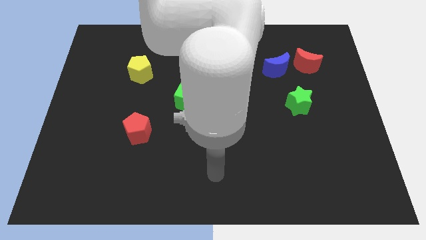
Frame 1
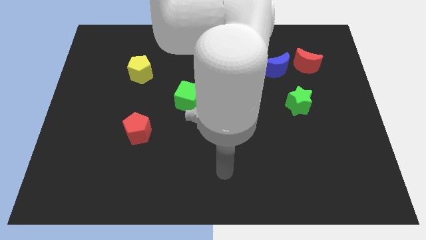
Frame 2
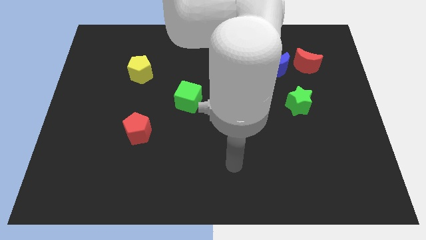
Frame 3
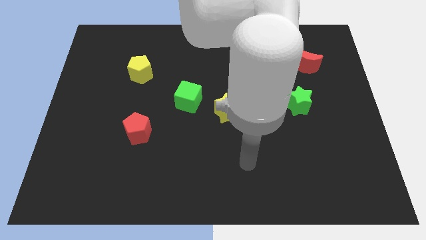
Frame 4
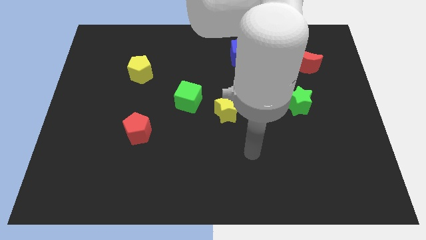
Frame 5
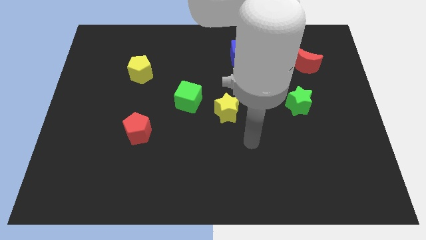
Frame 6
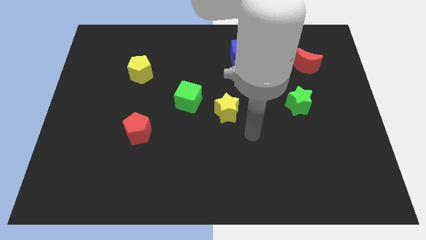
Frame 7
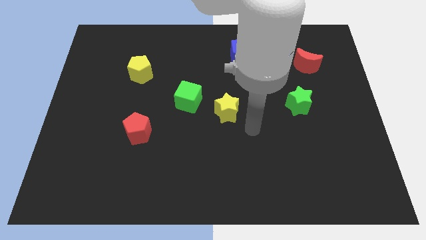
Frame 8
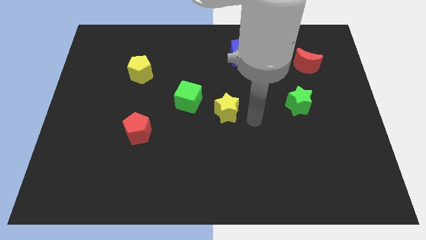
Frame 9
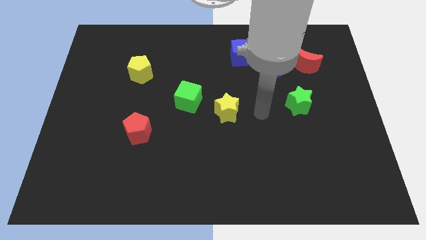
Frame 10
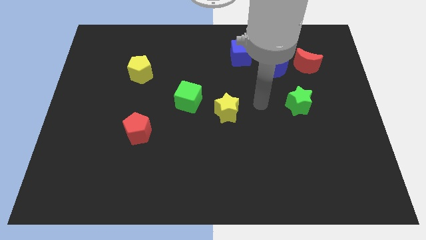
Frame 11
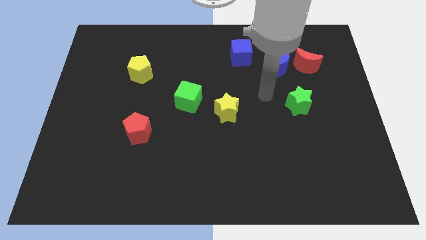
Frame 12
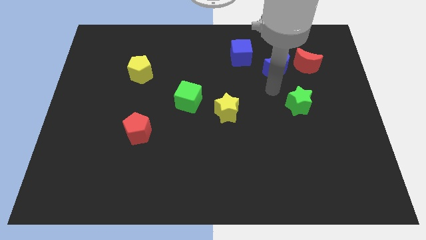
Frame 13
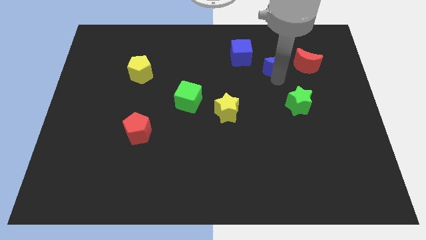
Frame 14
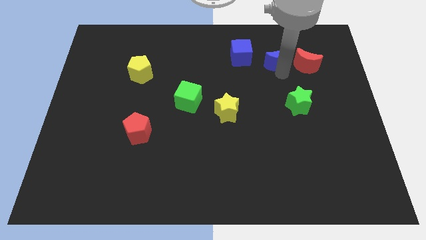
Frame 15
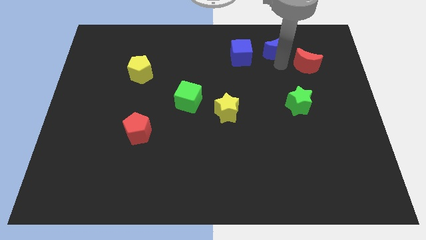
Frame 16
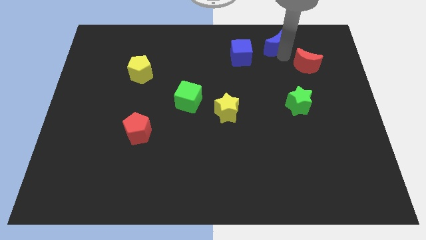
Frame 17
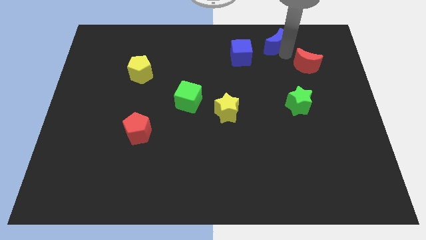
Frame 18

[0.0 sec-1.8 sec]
pull the red moon apart from the blue moon

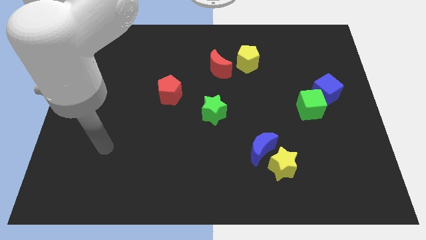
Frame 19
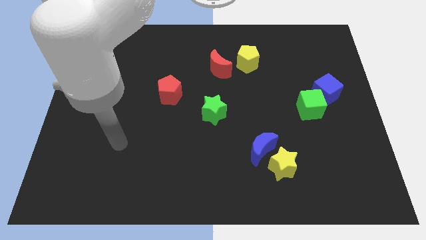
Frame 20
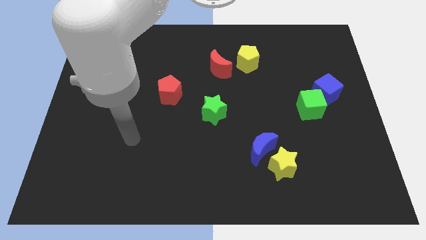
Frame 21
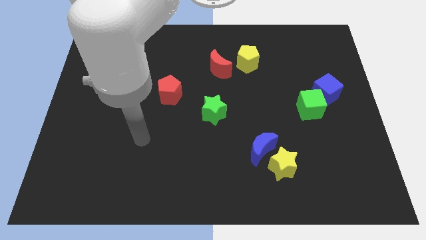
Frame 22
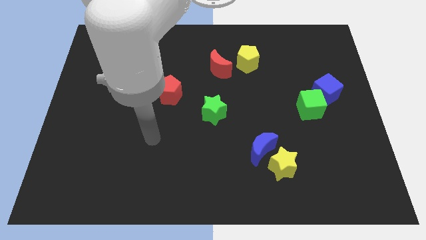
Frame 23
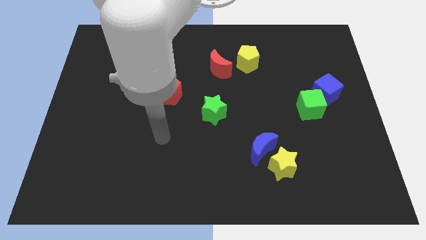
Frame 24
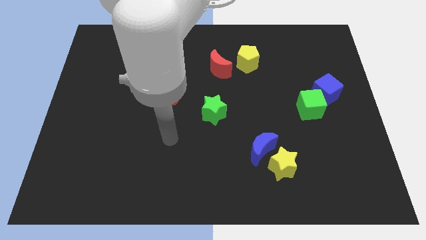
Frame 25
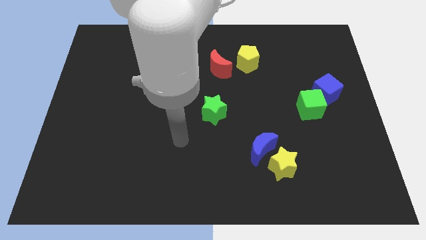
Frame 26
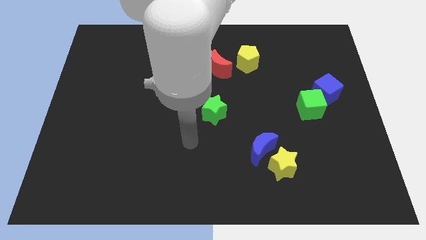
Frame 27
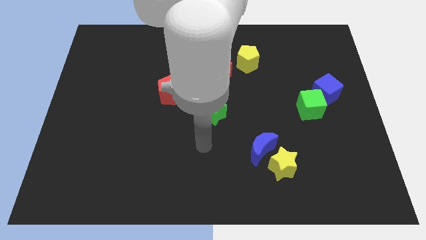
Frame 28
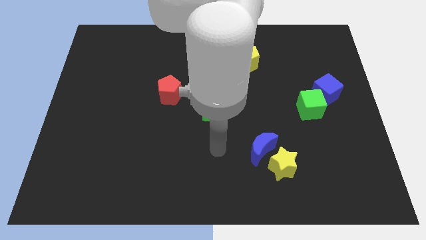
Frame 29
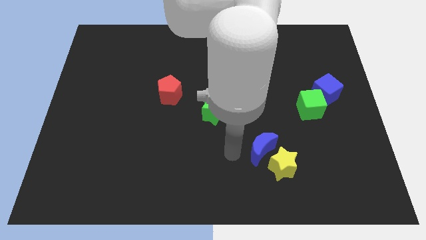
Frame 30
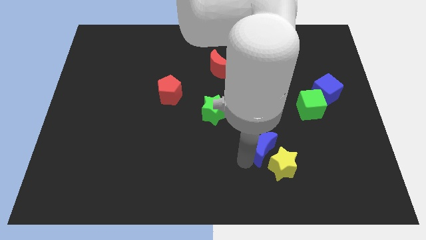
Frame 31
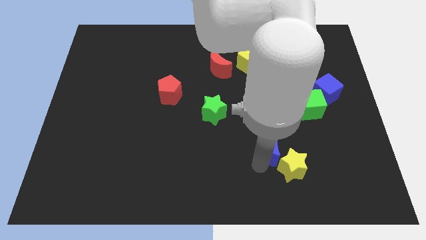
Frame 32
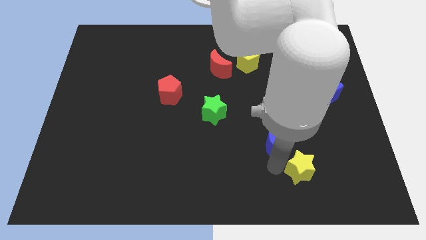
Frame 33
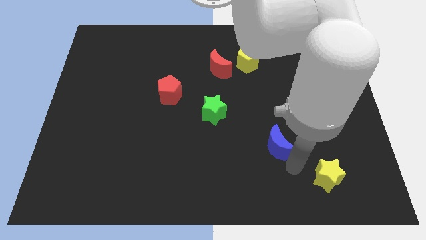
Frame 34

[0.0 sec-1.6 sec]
move the blue moon away from the yellow star

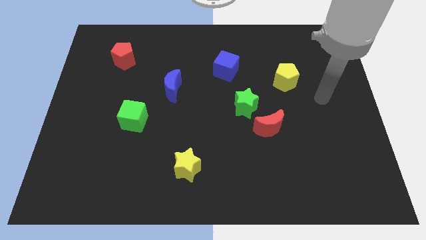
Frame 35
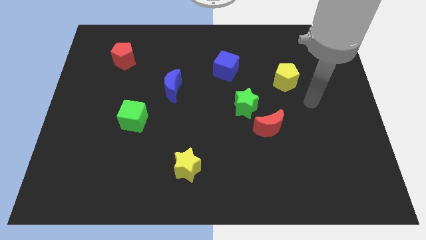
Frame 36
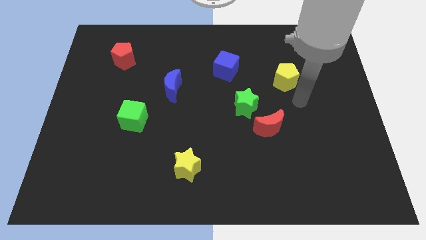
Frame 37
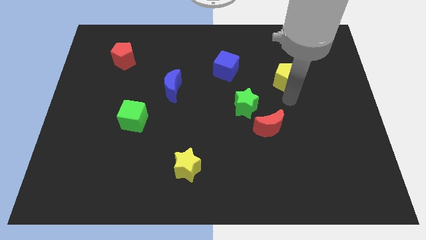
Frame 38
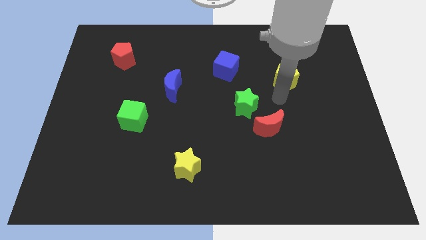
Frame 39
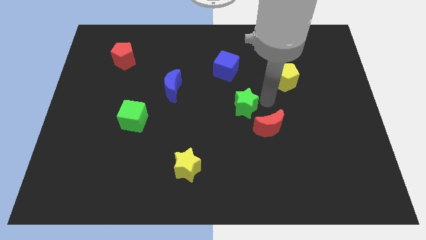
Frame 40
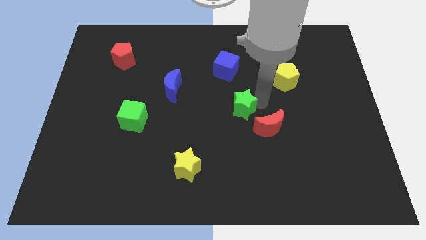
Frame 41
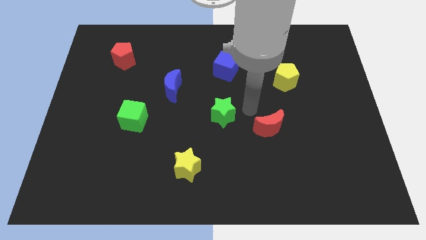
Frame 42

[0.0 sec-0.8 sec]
separate the red moon from the green star

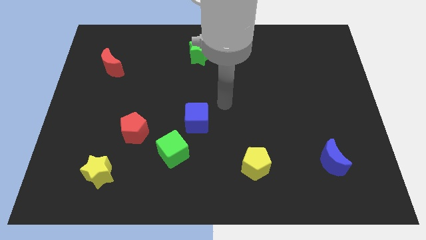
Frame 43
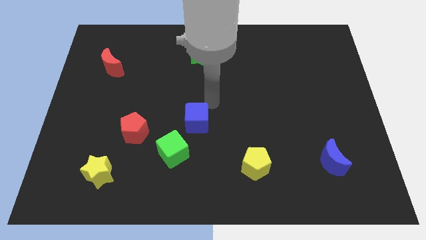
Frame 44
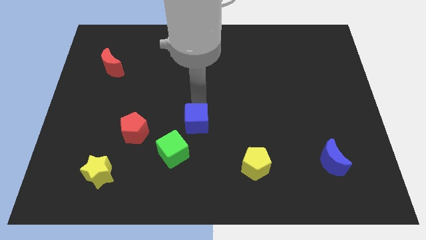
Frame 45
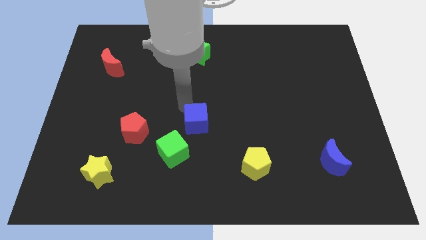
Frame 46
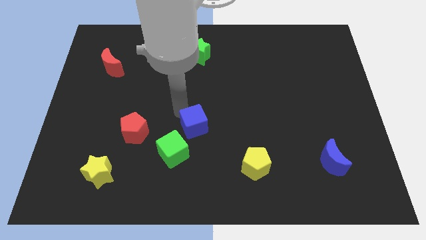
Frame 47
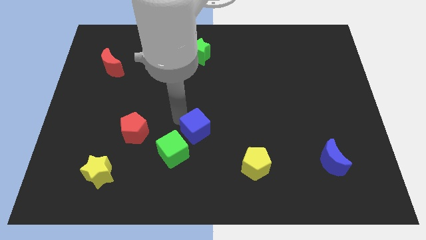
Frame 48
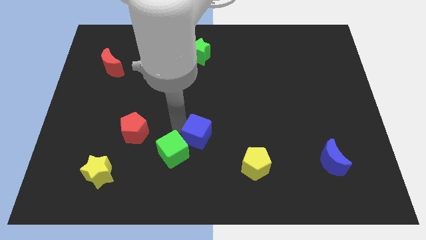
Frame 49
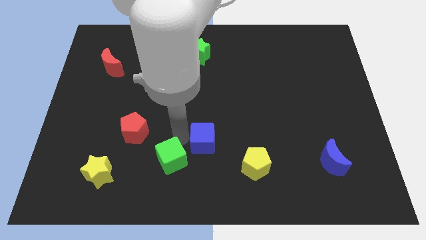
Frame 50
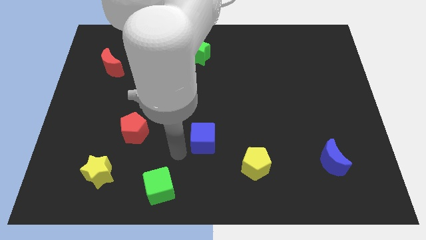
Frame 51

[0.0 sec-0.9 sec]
move the blue cube away from the green cube

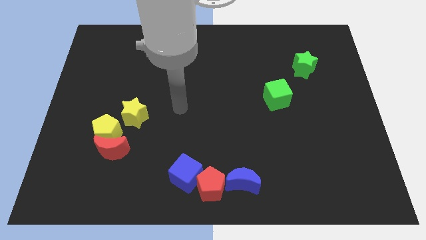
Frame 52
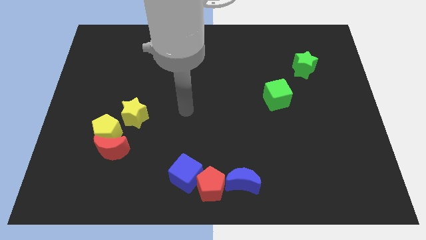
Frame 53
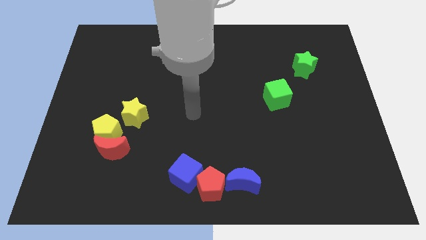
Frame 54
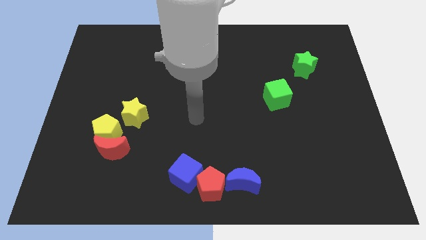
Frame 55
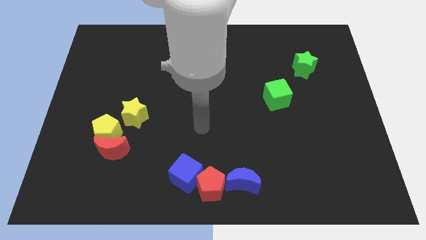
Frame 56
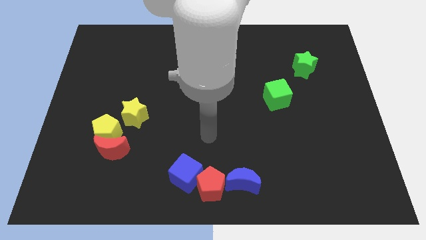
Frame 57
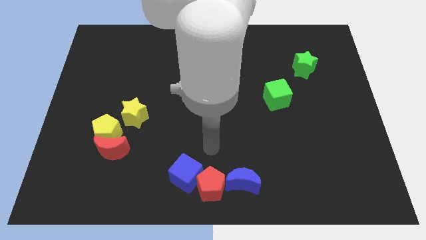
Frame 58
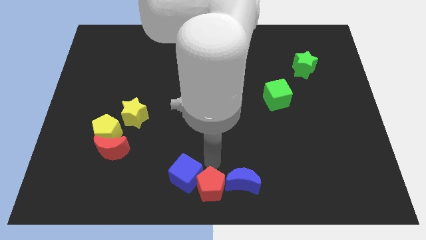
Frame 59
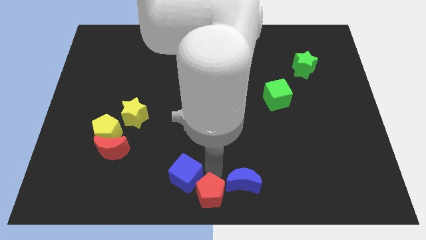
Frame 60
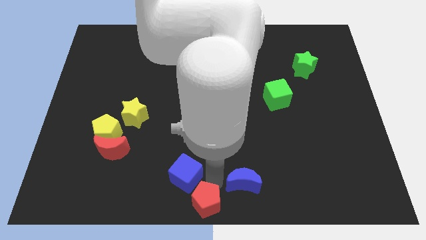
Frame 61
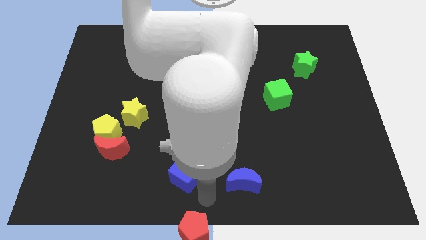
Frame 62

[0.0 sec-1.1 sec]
separate the blue cube from the red pentagon

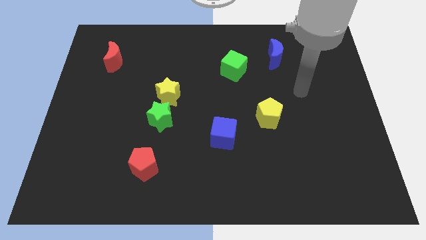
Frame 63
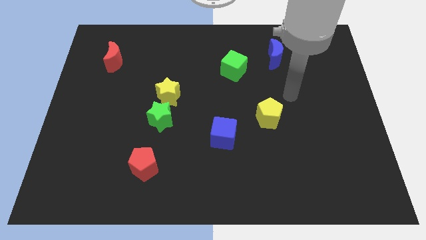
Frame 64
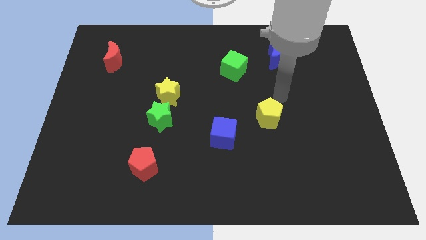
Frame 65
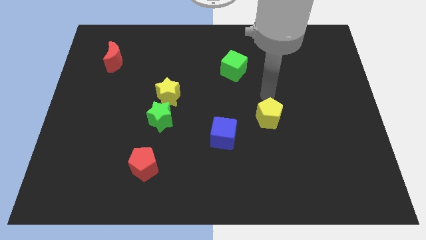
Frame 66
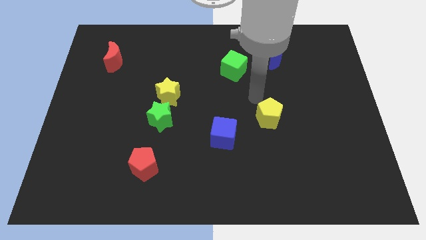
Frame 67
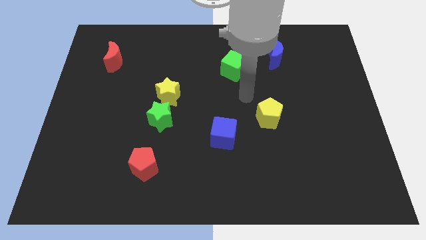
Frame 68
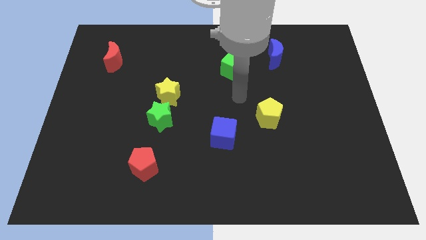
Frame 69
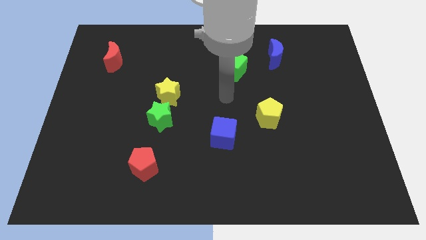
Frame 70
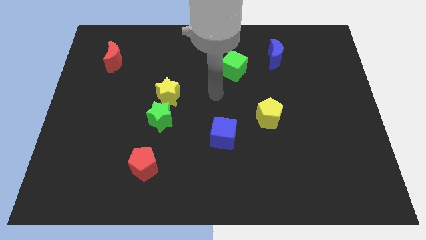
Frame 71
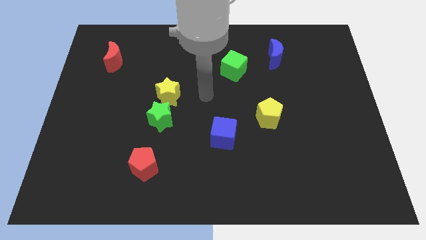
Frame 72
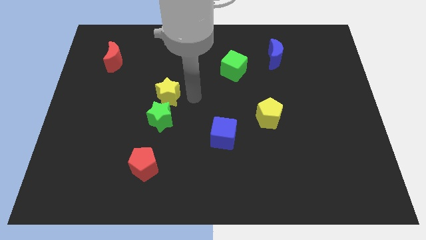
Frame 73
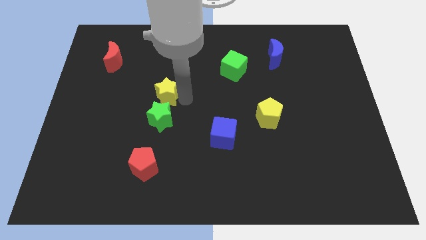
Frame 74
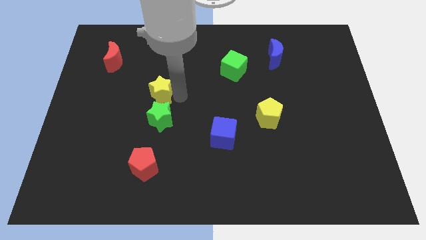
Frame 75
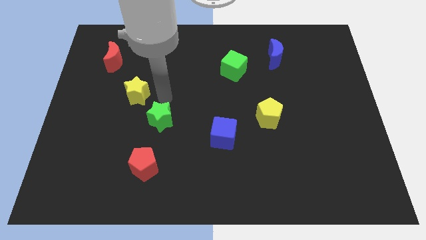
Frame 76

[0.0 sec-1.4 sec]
pull the green star apart from the yellow star

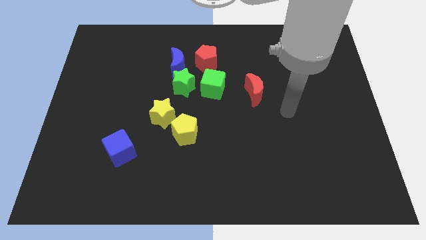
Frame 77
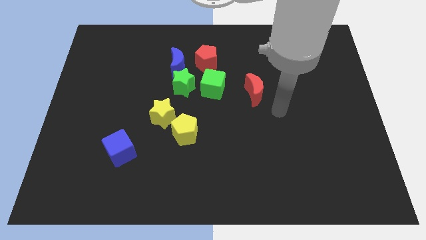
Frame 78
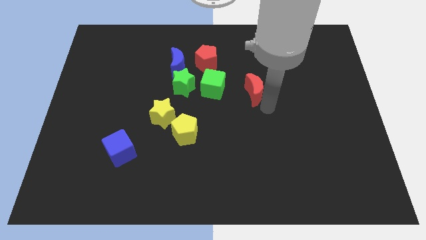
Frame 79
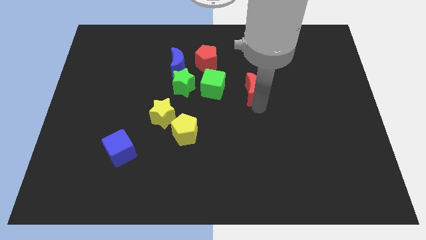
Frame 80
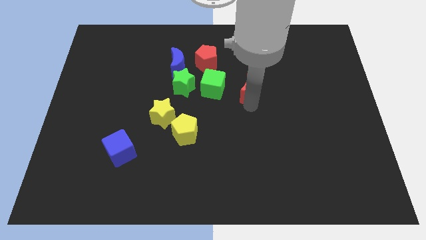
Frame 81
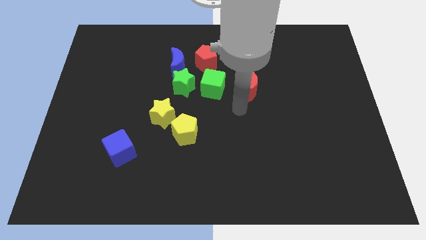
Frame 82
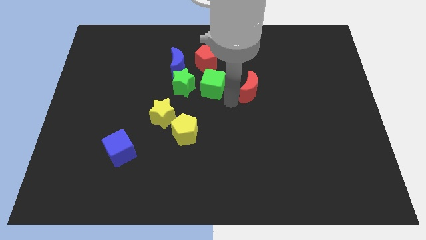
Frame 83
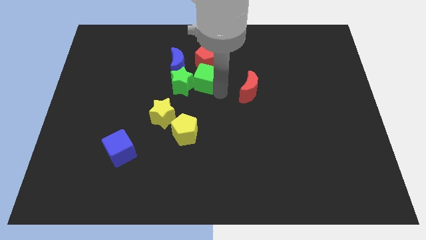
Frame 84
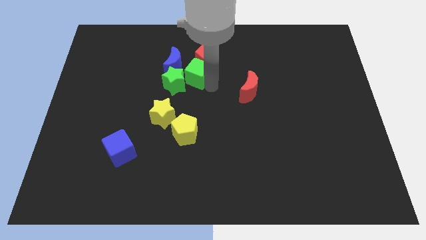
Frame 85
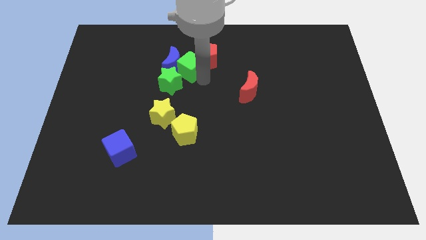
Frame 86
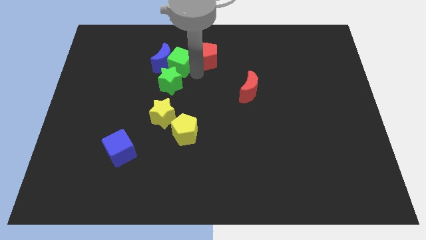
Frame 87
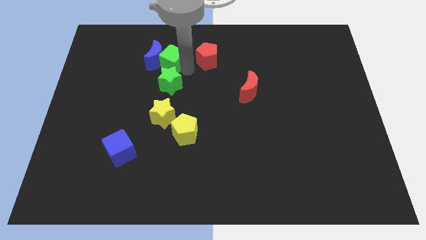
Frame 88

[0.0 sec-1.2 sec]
separate the blue moon from the green star and red pentagon

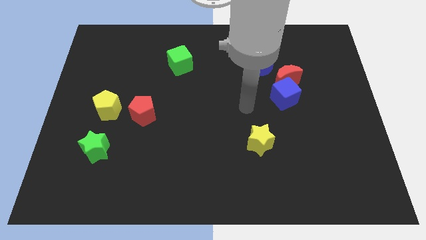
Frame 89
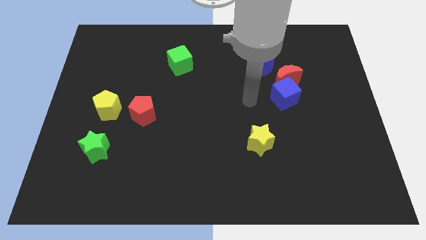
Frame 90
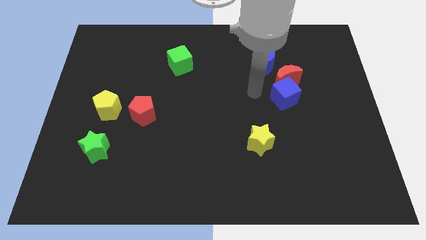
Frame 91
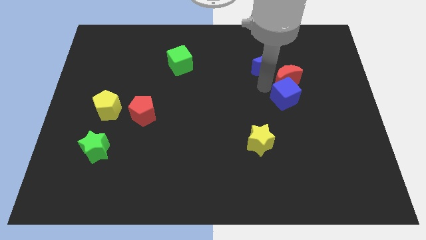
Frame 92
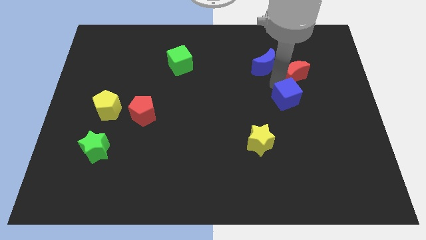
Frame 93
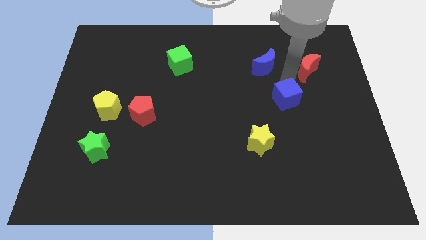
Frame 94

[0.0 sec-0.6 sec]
separate the blue cube from the red moon
